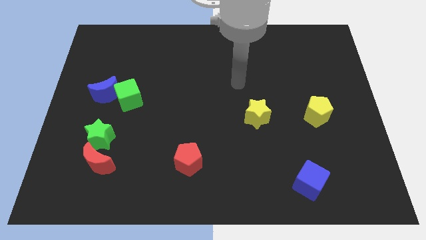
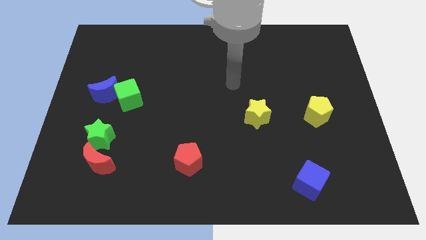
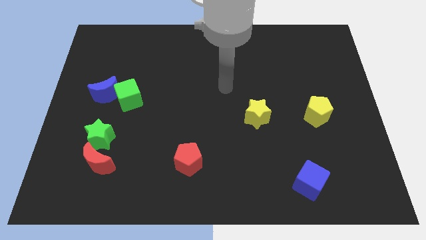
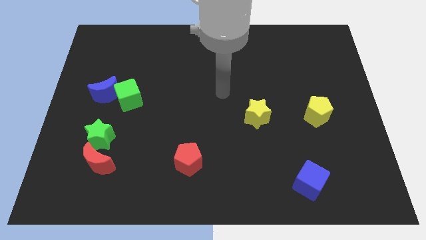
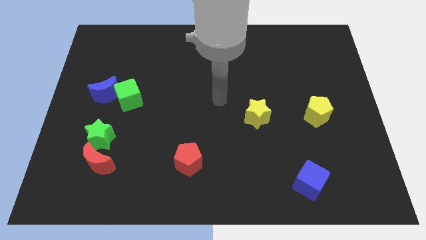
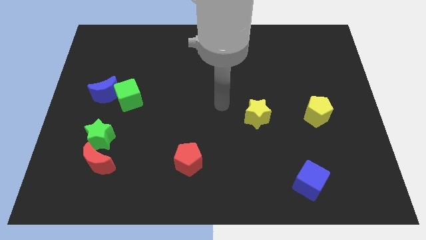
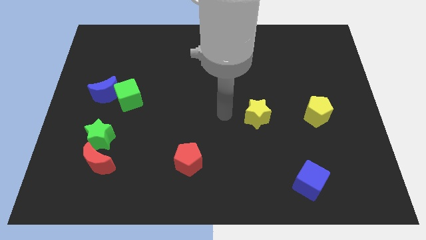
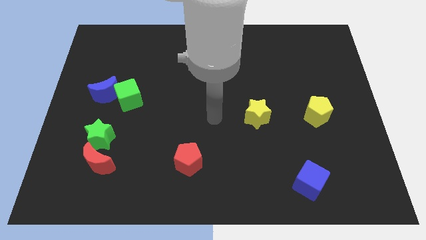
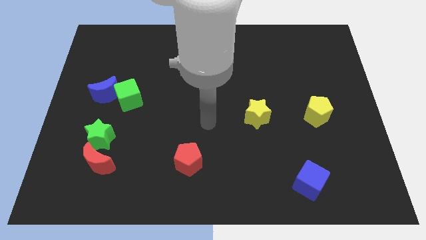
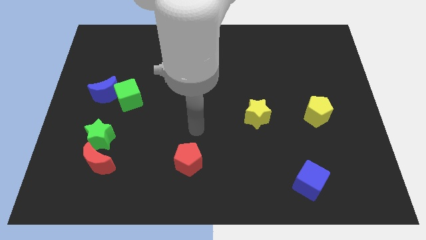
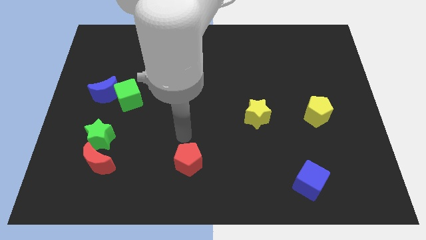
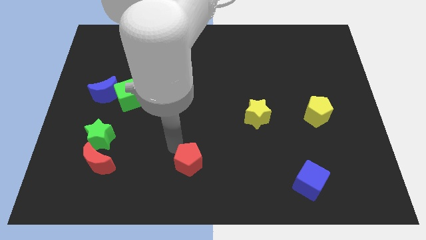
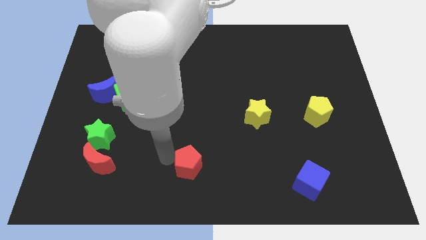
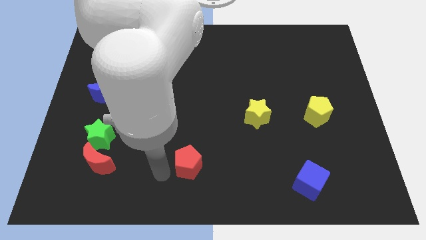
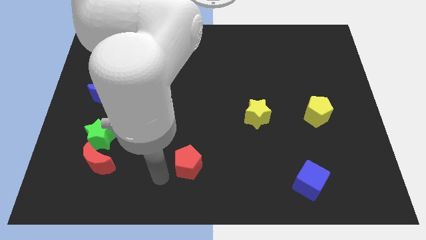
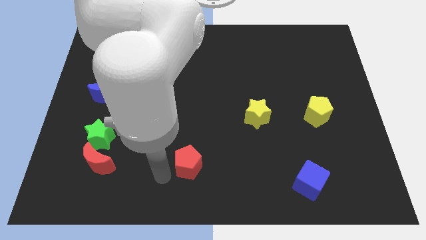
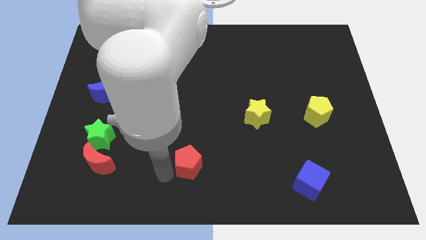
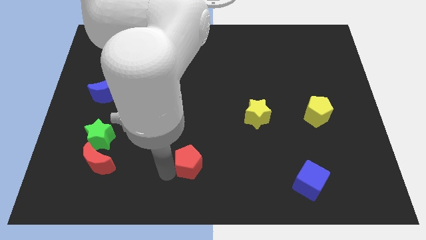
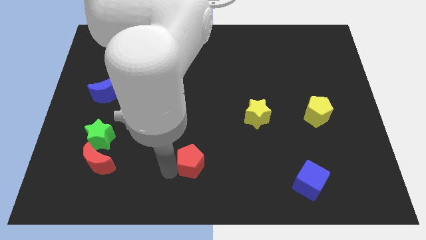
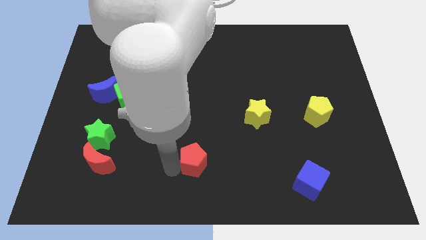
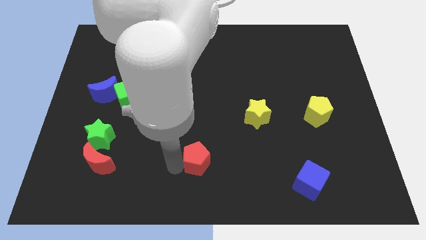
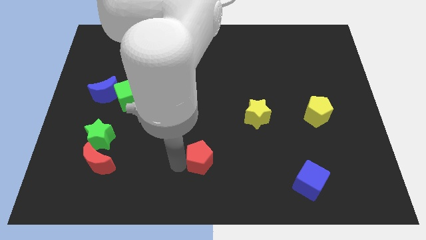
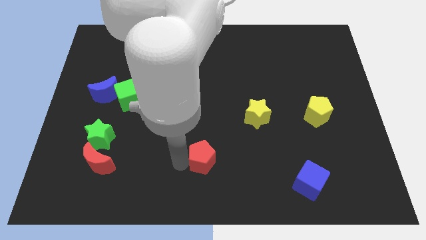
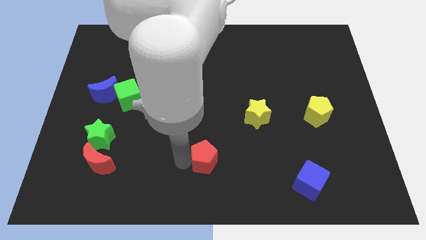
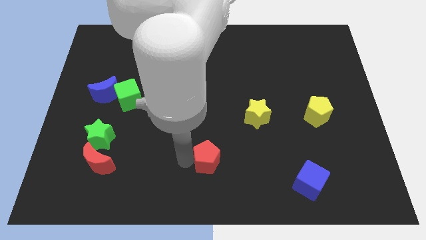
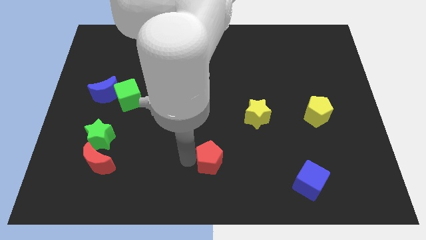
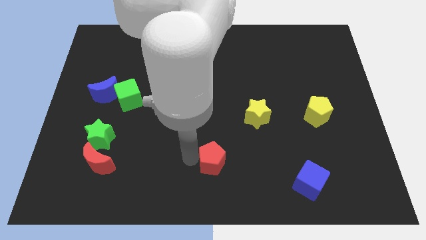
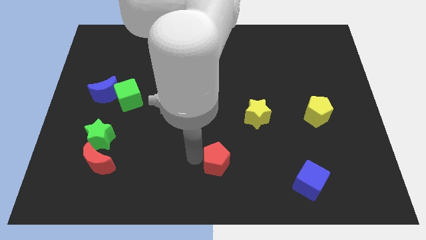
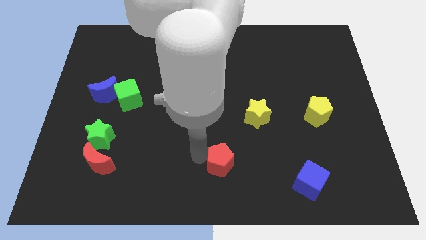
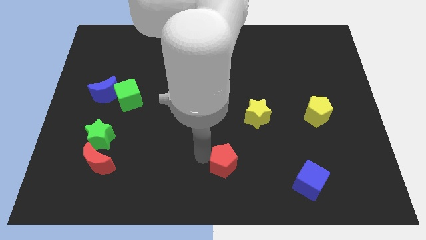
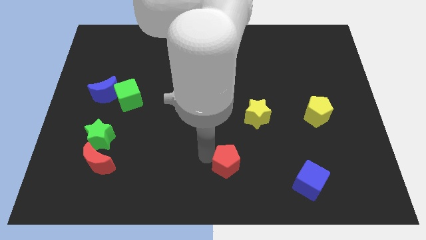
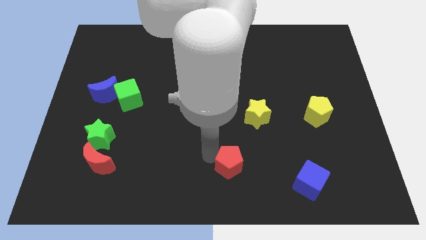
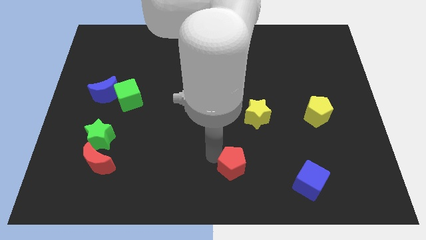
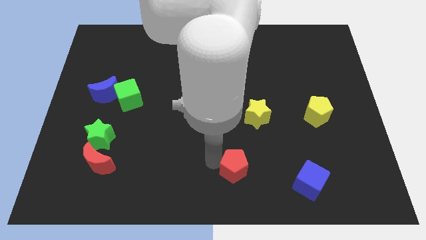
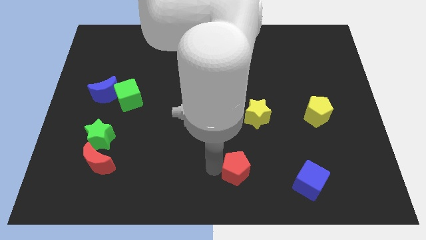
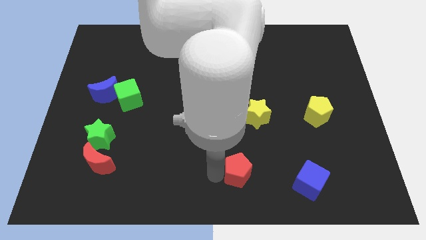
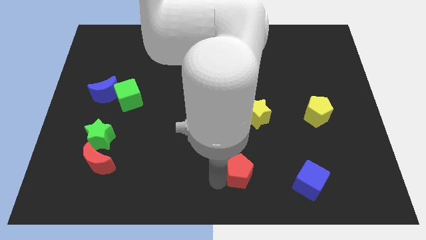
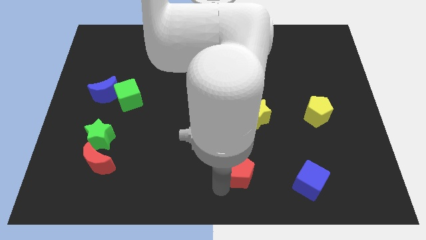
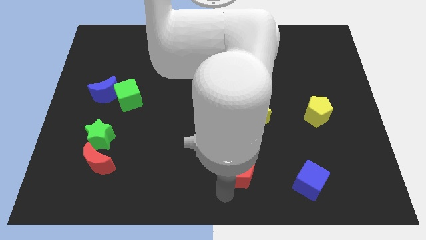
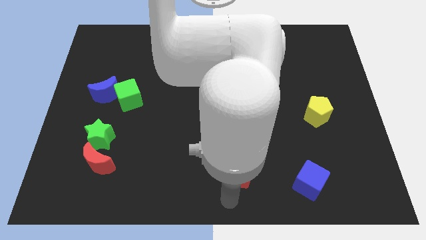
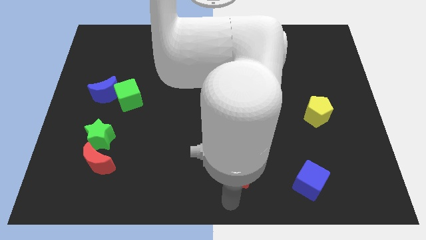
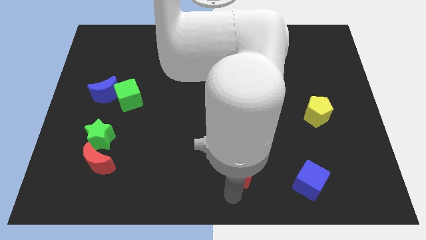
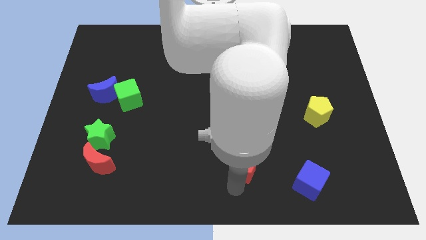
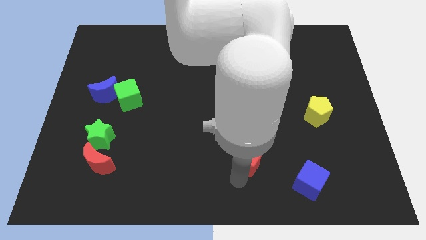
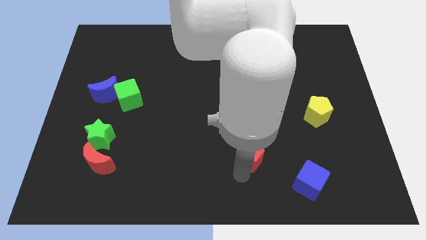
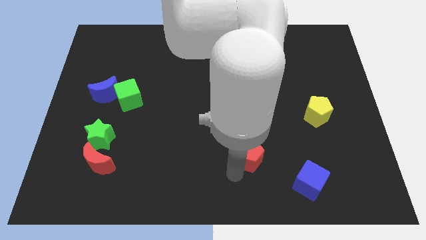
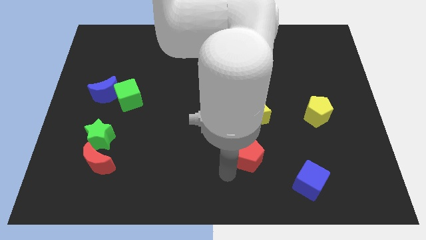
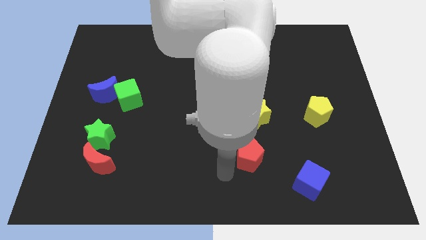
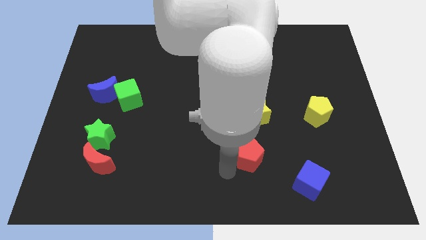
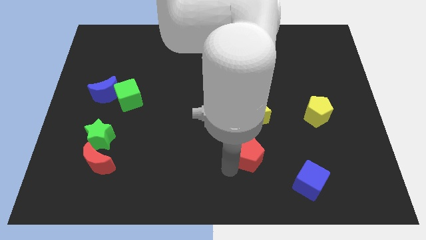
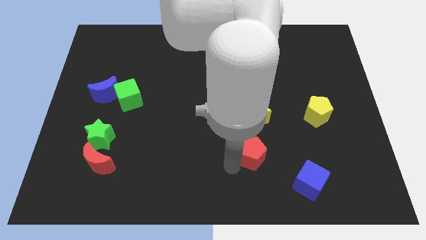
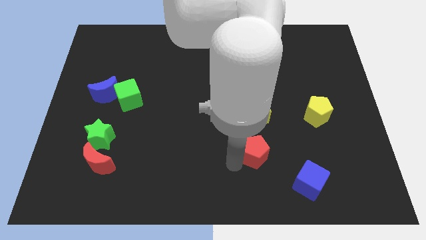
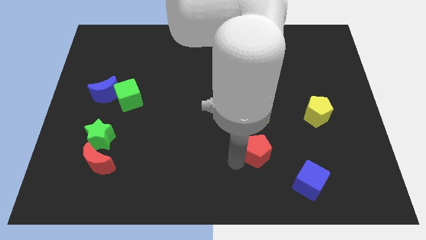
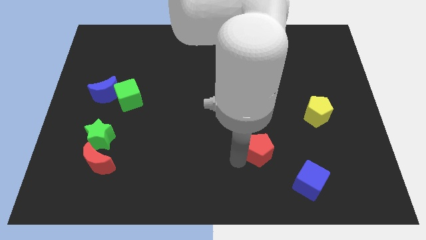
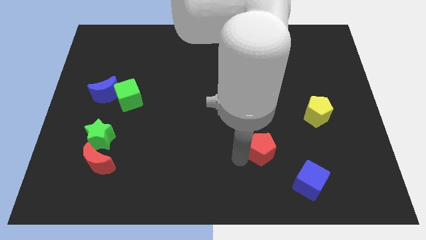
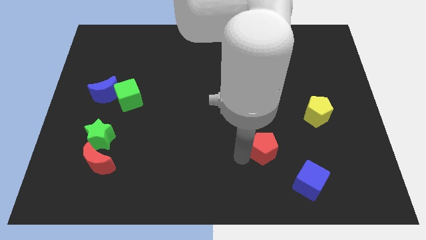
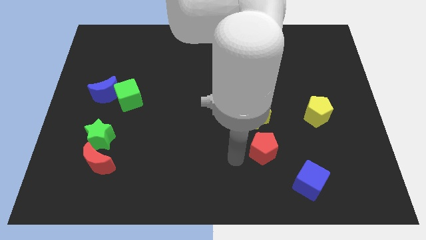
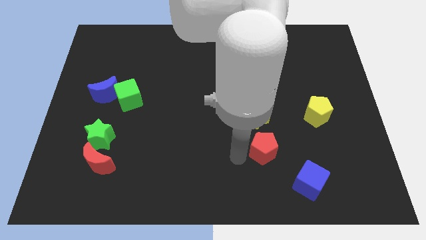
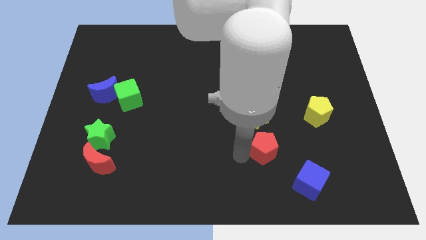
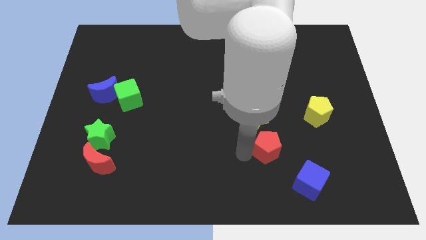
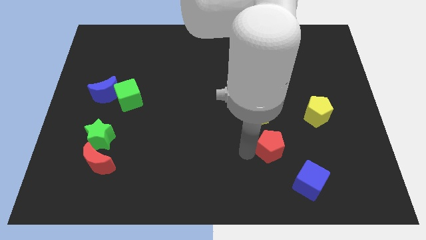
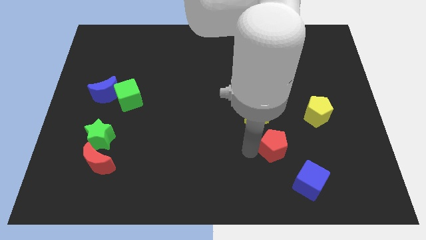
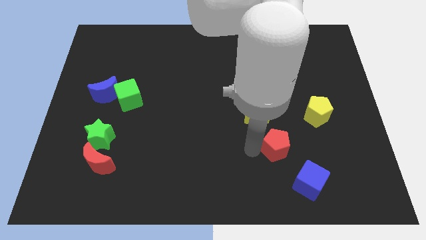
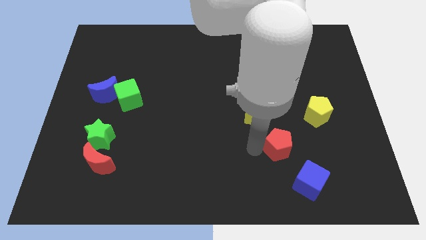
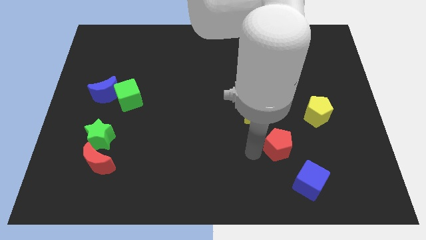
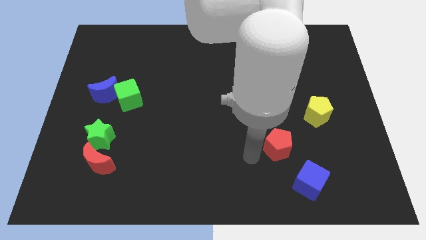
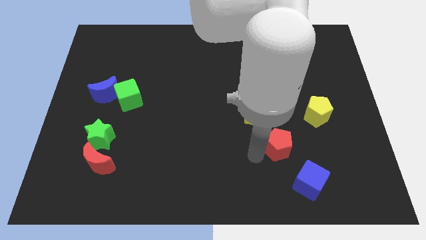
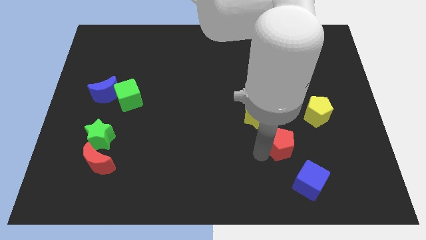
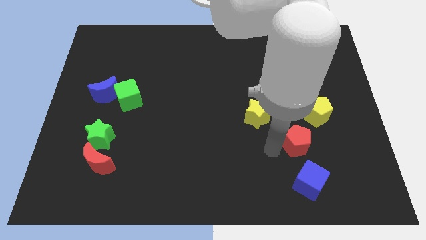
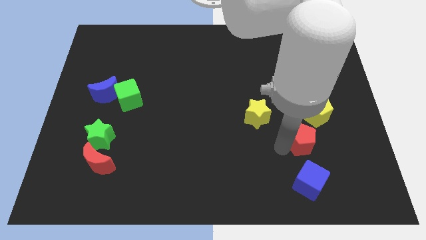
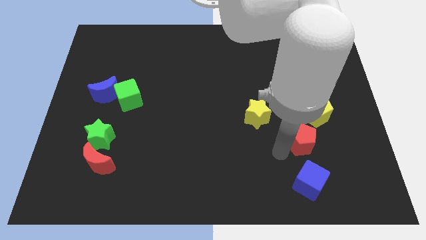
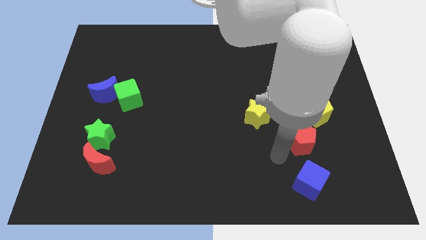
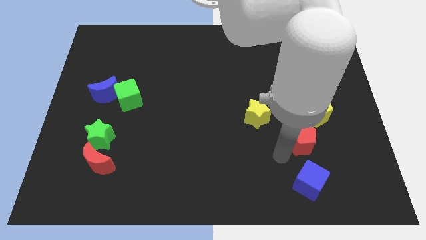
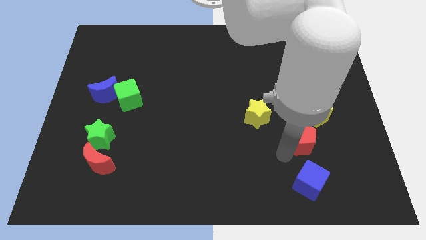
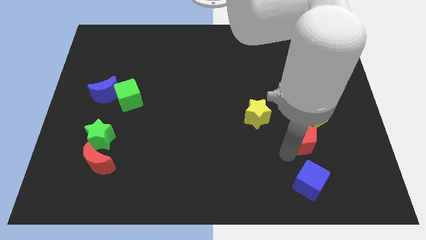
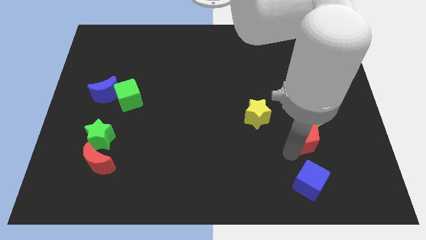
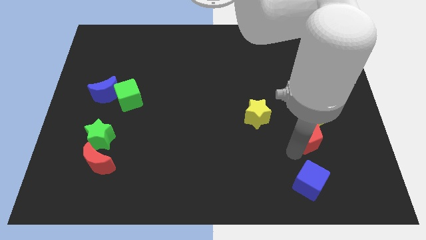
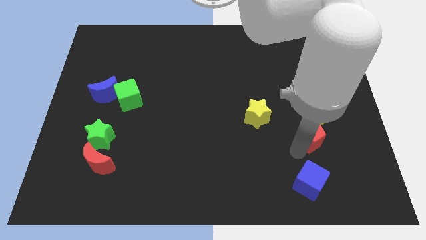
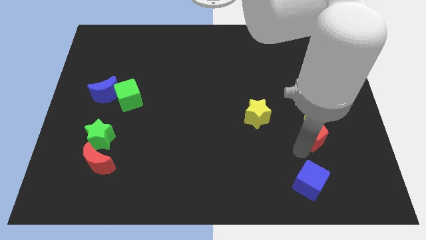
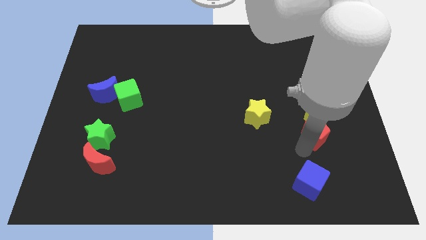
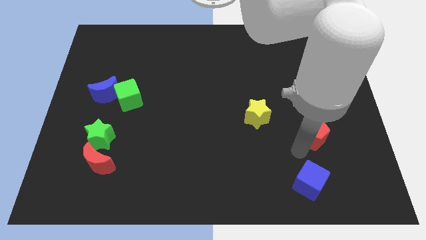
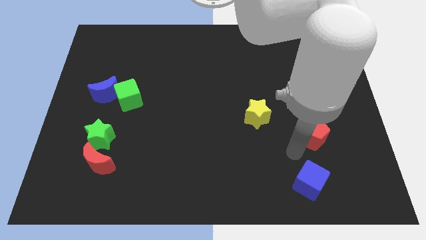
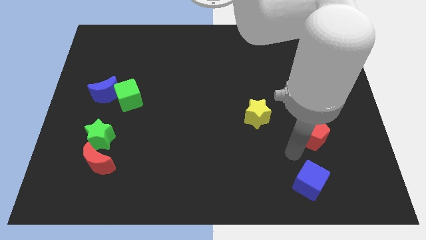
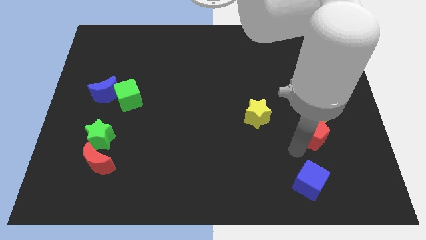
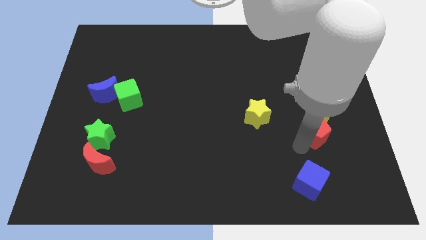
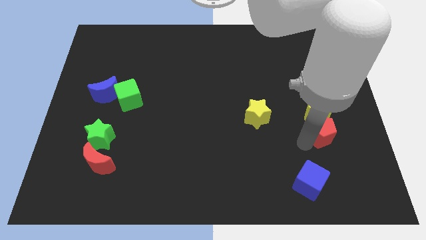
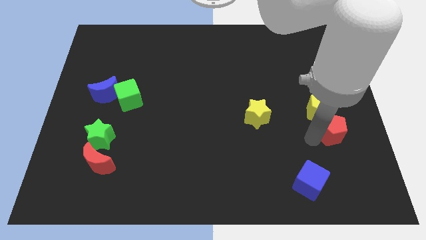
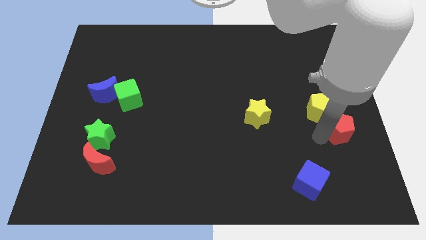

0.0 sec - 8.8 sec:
put the red pentagon to the right side of the board
